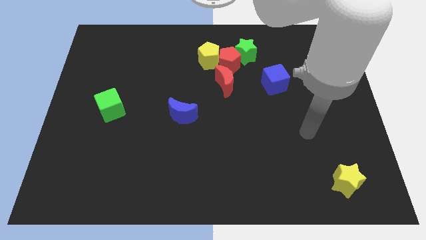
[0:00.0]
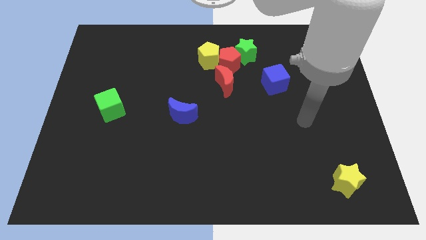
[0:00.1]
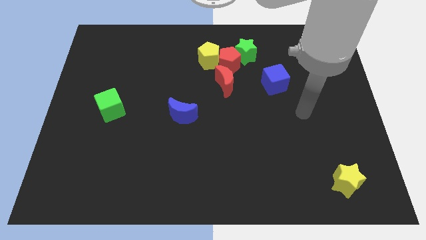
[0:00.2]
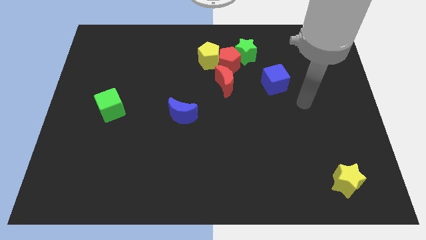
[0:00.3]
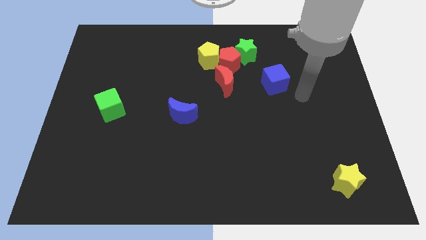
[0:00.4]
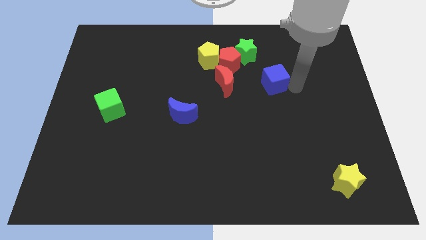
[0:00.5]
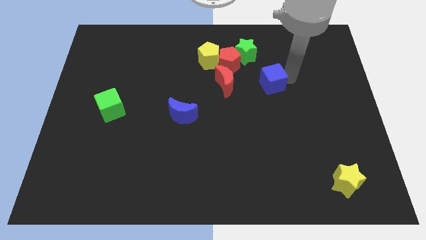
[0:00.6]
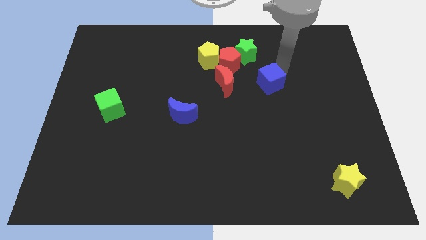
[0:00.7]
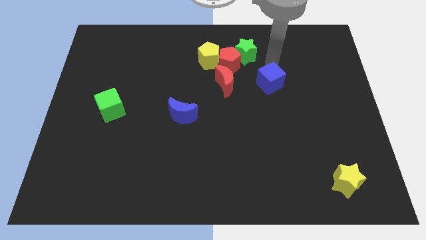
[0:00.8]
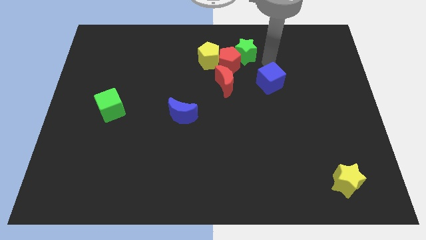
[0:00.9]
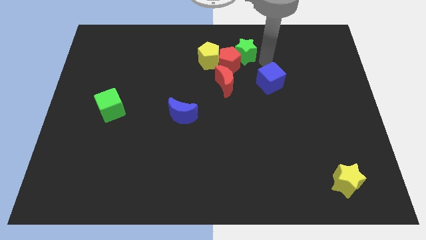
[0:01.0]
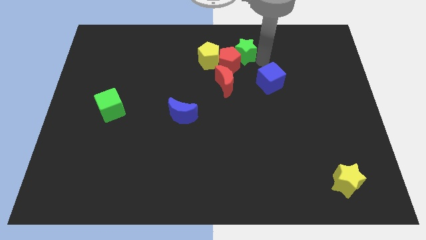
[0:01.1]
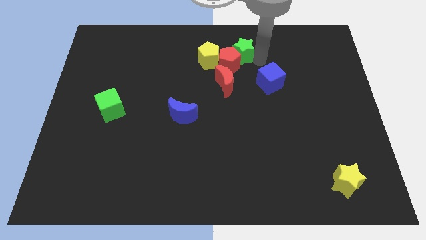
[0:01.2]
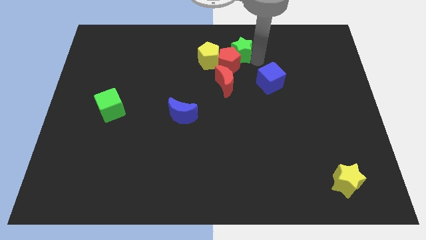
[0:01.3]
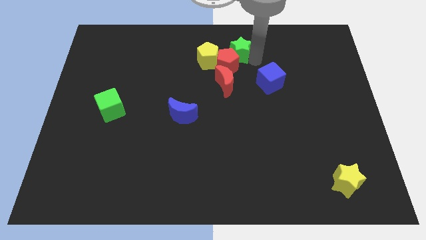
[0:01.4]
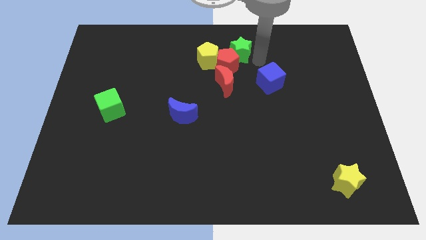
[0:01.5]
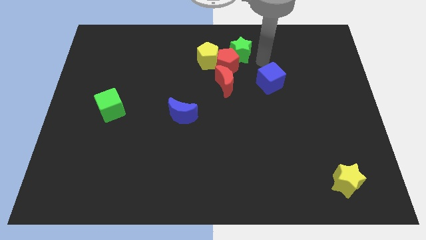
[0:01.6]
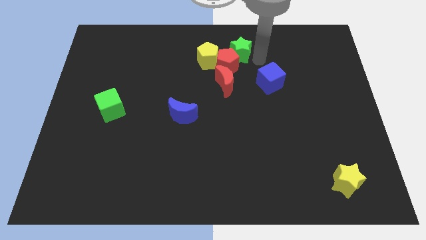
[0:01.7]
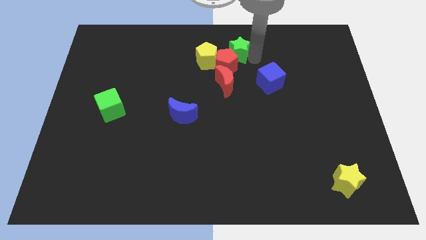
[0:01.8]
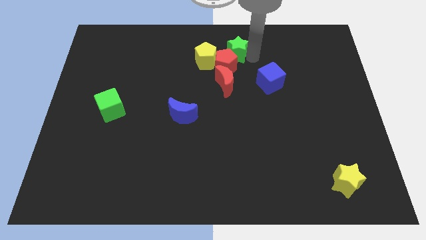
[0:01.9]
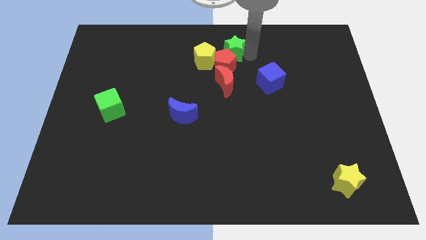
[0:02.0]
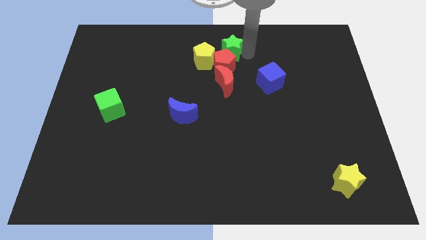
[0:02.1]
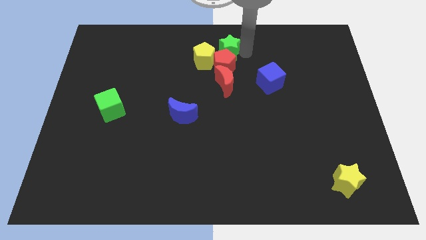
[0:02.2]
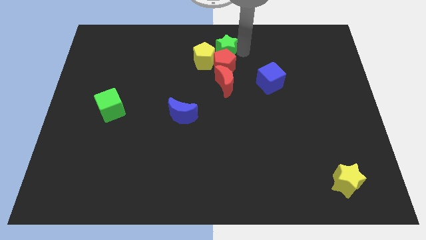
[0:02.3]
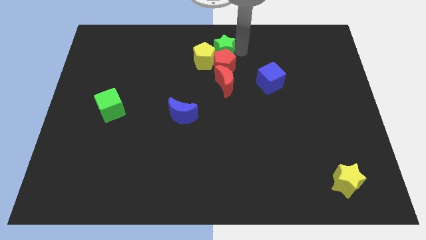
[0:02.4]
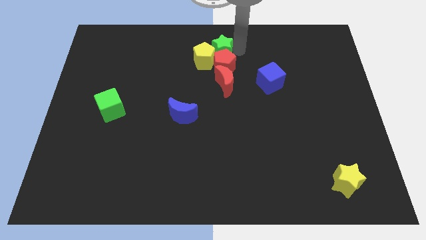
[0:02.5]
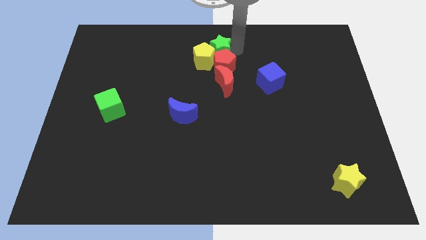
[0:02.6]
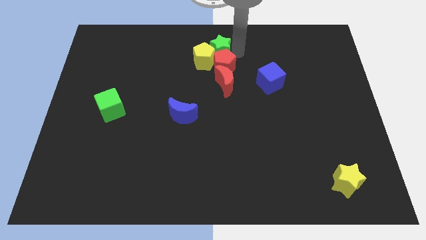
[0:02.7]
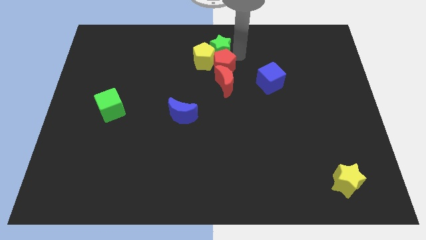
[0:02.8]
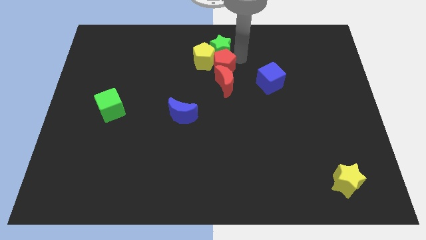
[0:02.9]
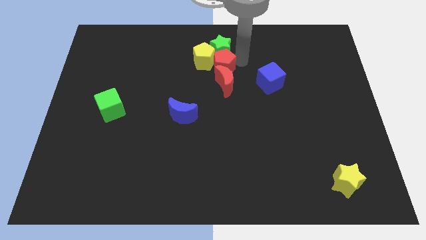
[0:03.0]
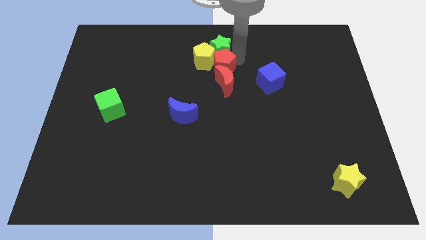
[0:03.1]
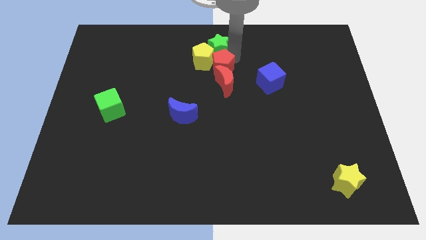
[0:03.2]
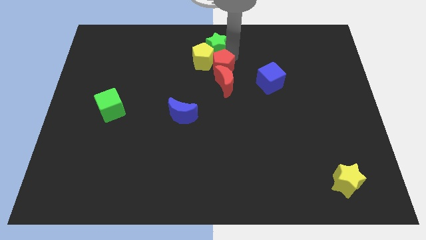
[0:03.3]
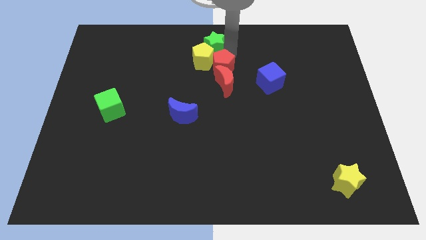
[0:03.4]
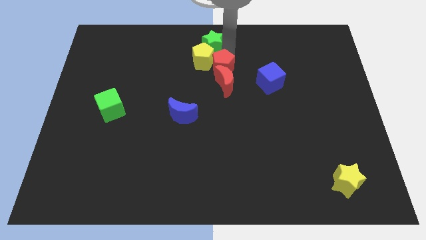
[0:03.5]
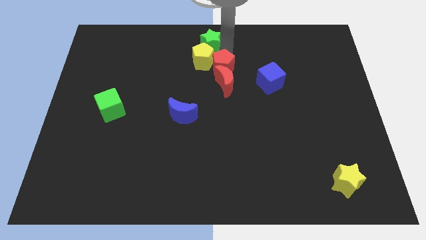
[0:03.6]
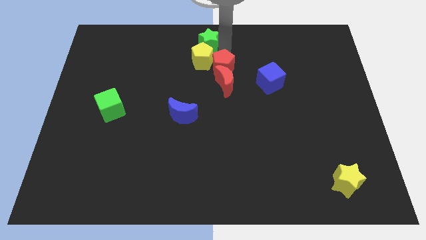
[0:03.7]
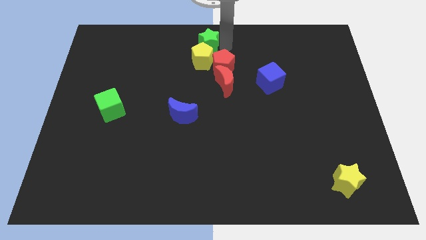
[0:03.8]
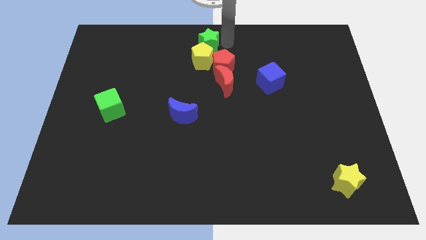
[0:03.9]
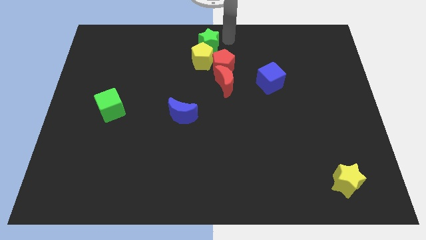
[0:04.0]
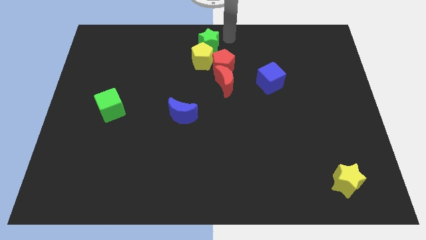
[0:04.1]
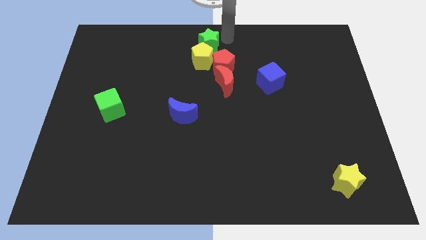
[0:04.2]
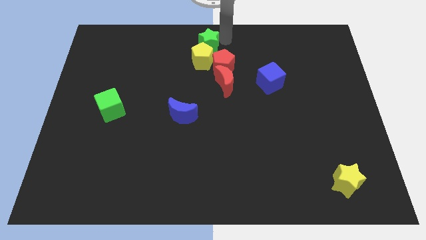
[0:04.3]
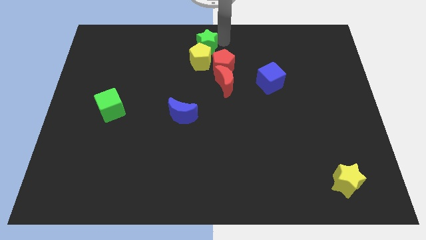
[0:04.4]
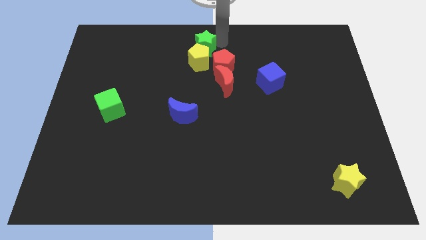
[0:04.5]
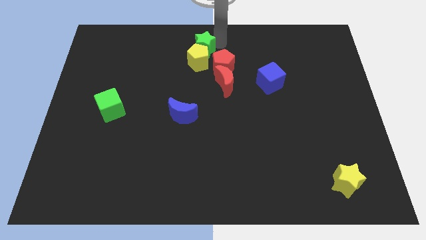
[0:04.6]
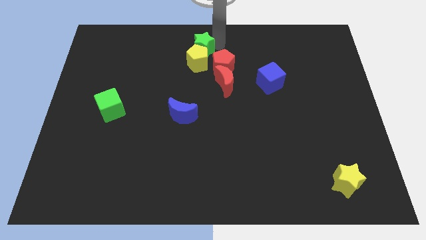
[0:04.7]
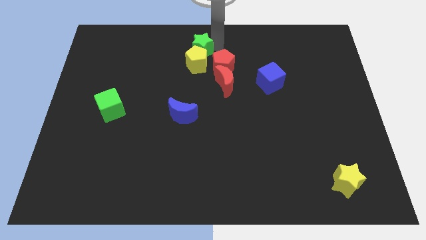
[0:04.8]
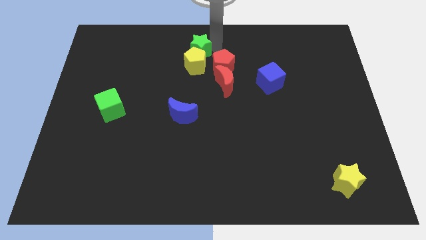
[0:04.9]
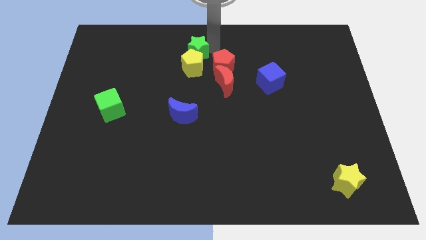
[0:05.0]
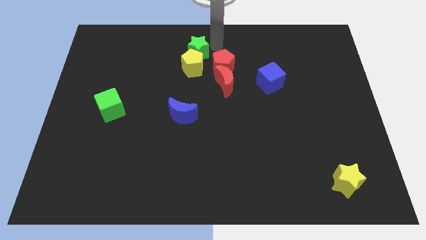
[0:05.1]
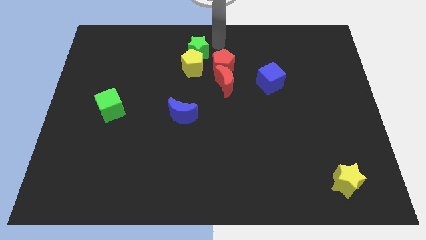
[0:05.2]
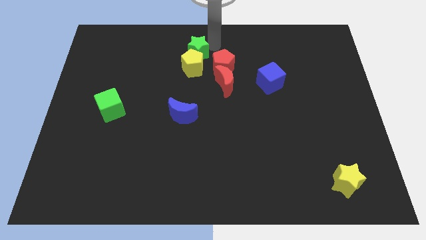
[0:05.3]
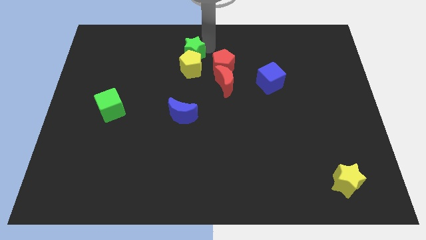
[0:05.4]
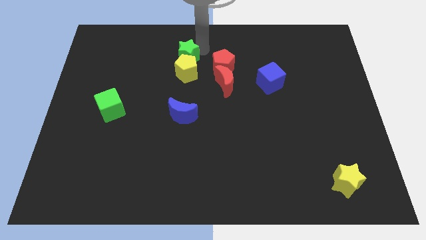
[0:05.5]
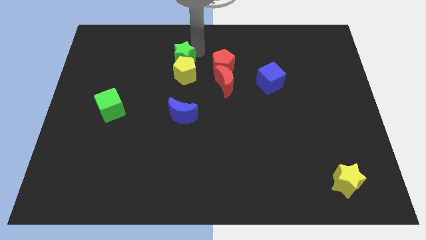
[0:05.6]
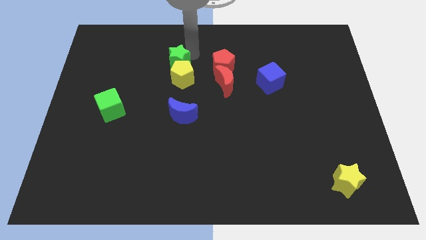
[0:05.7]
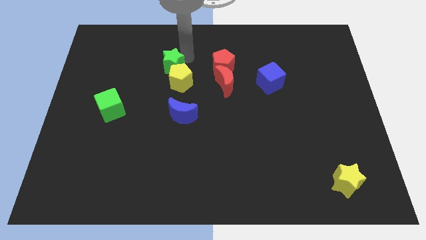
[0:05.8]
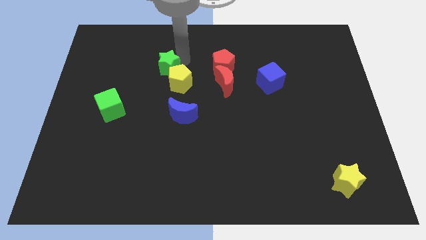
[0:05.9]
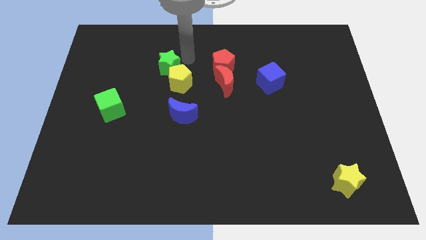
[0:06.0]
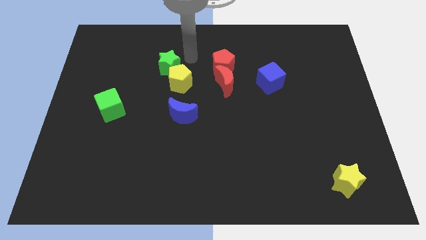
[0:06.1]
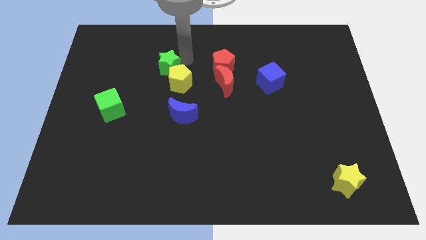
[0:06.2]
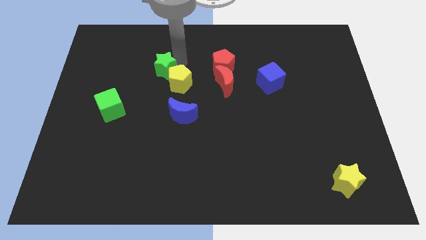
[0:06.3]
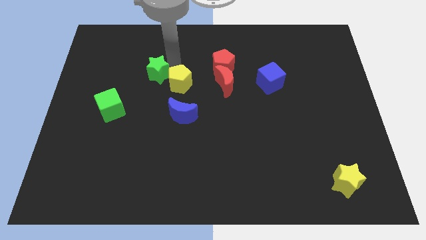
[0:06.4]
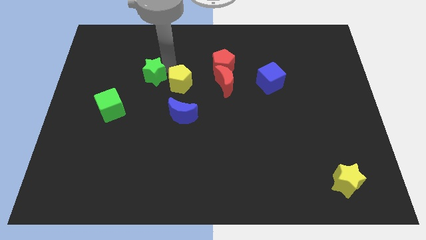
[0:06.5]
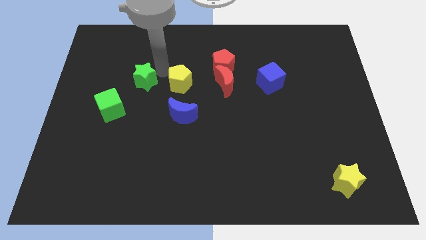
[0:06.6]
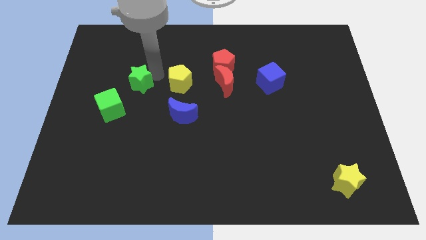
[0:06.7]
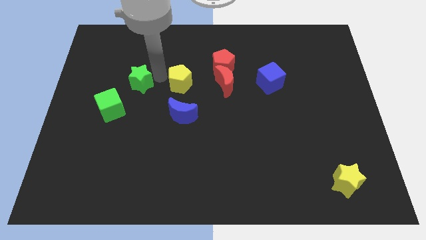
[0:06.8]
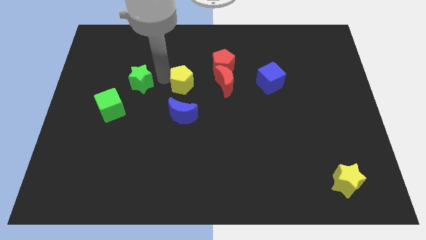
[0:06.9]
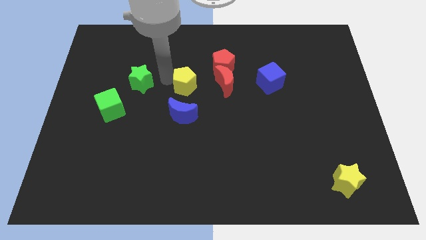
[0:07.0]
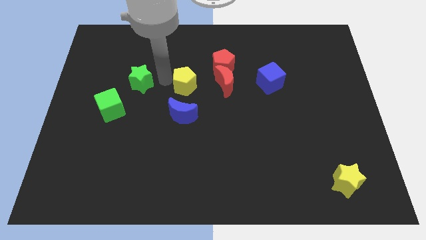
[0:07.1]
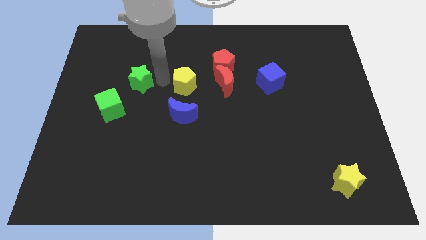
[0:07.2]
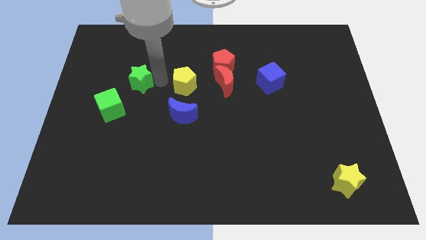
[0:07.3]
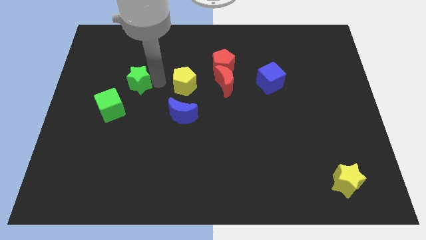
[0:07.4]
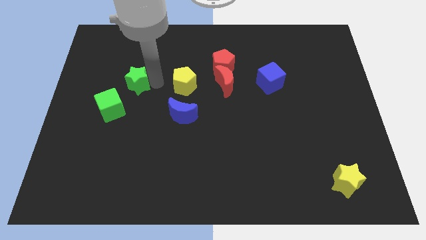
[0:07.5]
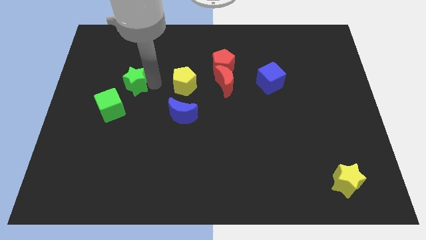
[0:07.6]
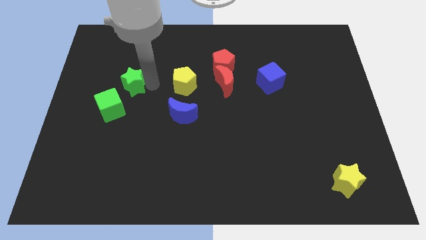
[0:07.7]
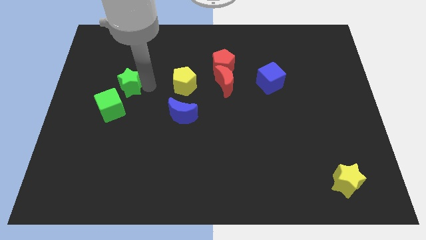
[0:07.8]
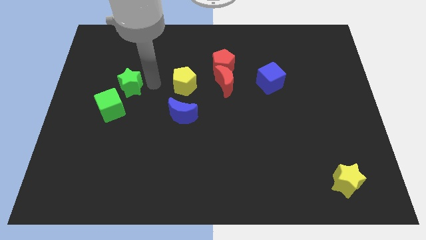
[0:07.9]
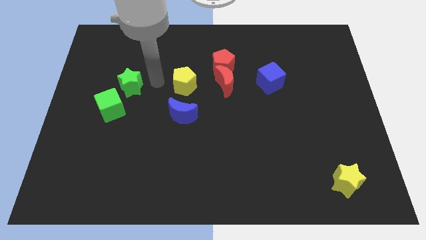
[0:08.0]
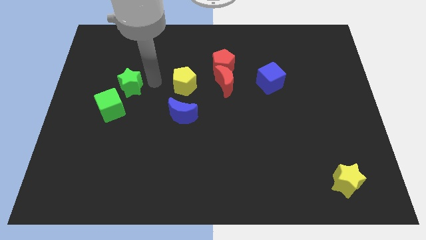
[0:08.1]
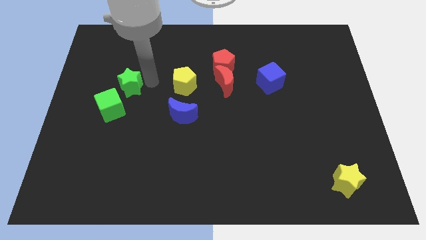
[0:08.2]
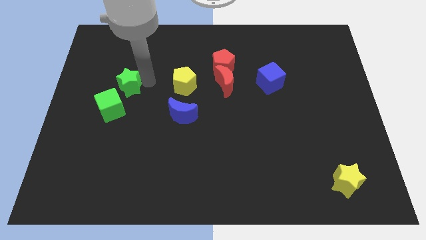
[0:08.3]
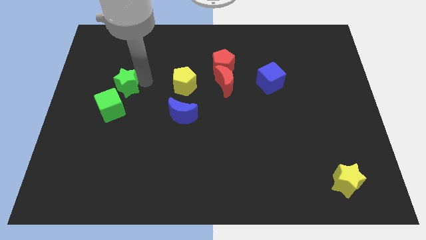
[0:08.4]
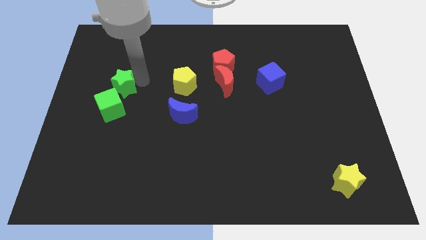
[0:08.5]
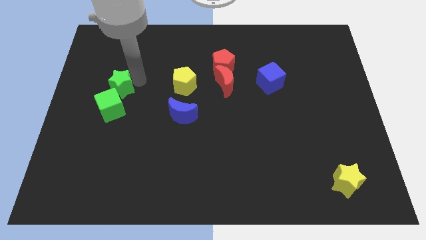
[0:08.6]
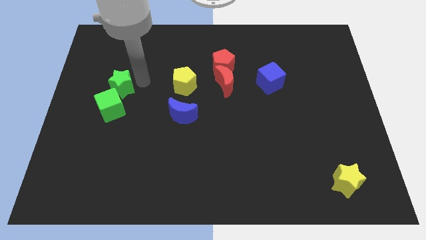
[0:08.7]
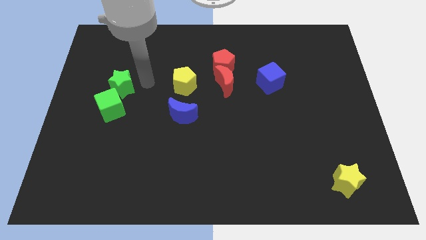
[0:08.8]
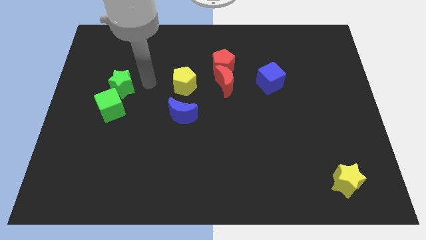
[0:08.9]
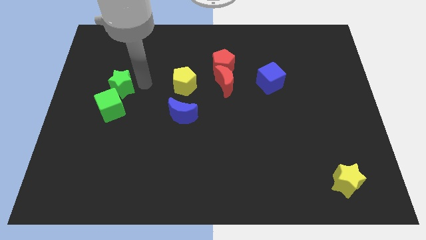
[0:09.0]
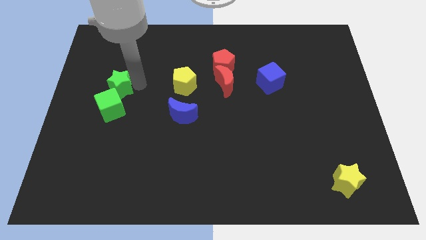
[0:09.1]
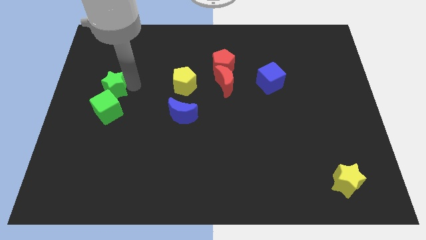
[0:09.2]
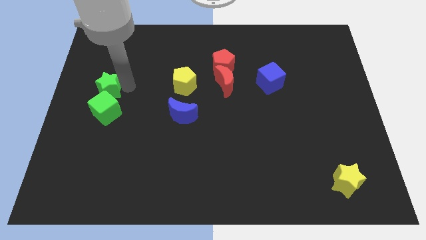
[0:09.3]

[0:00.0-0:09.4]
put the green star to the left side
